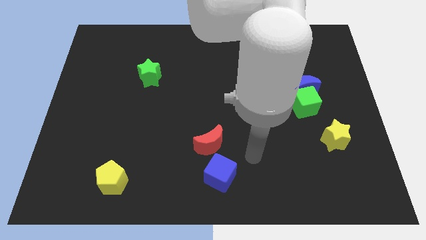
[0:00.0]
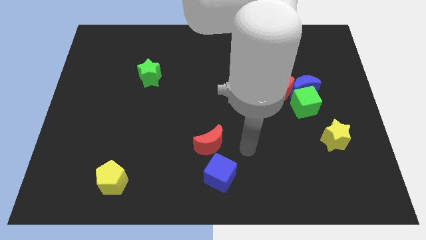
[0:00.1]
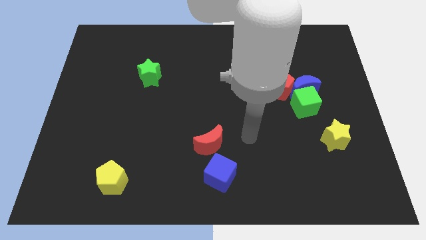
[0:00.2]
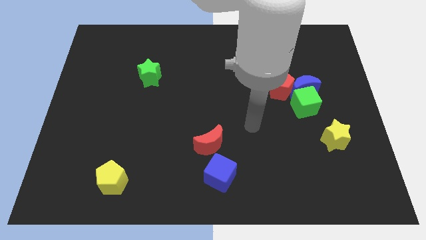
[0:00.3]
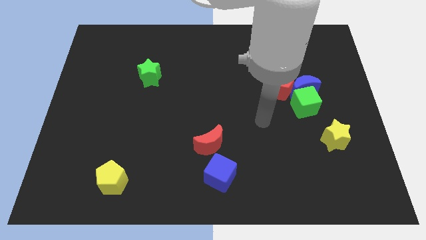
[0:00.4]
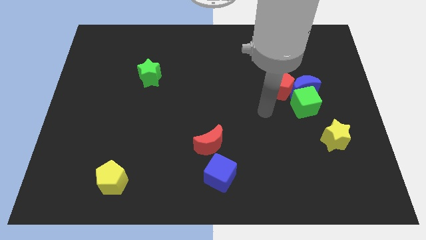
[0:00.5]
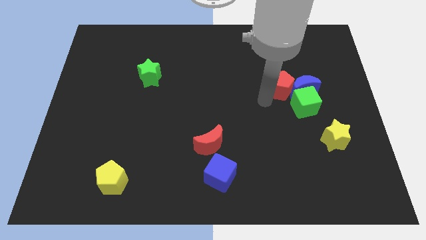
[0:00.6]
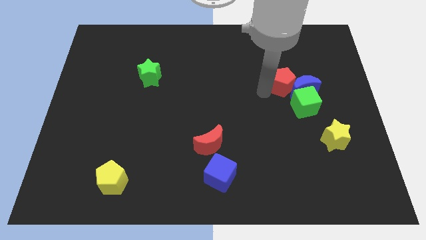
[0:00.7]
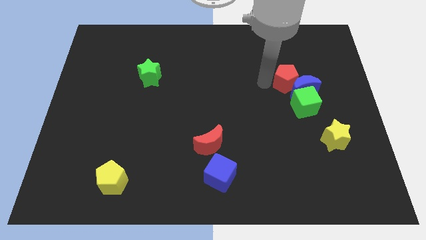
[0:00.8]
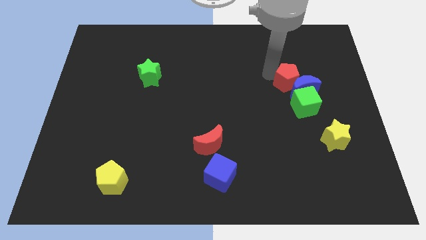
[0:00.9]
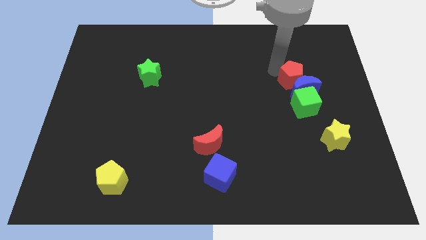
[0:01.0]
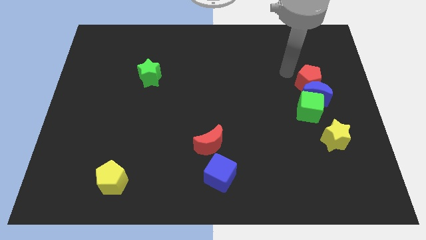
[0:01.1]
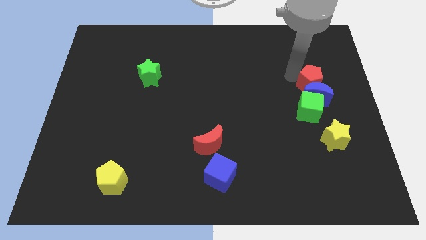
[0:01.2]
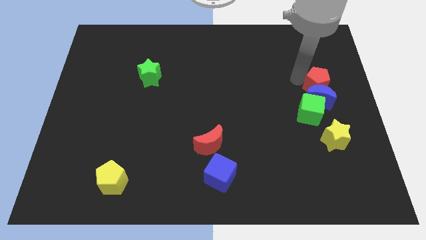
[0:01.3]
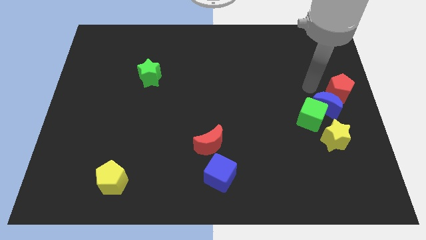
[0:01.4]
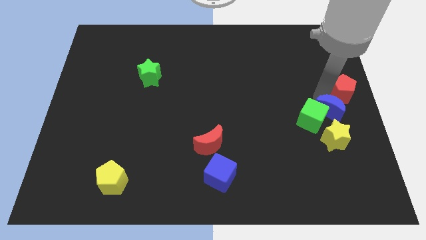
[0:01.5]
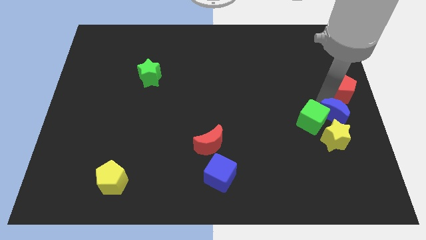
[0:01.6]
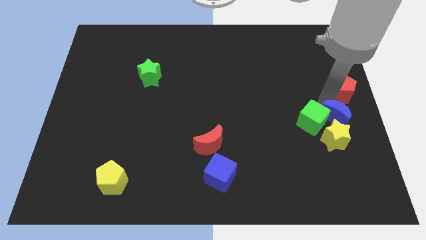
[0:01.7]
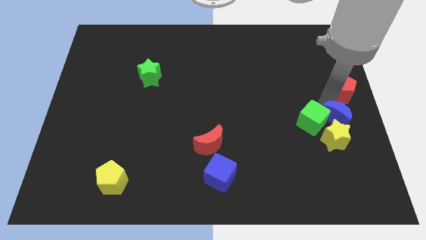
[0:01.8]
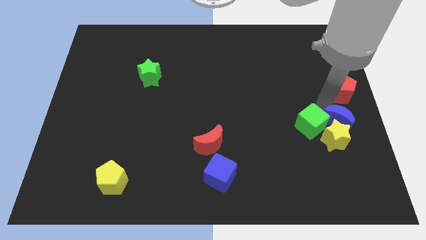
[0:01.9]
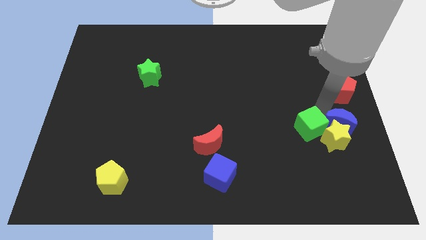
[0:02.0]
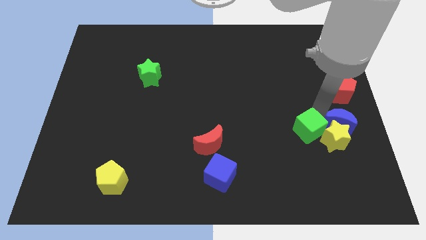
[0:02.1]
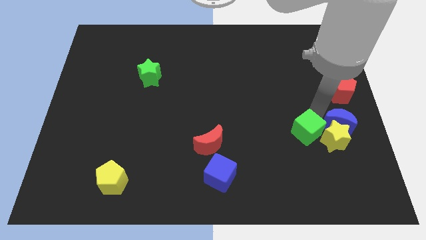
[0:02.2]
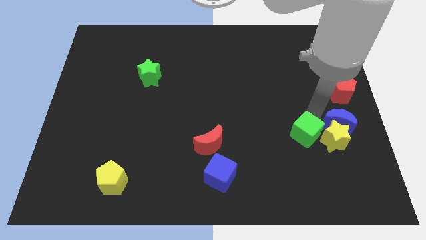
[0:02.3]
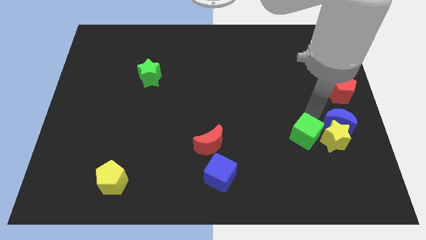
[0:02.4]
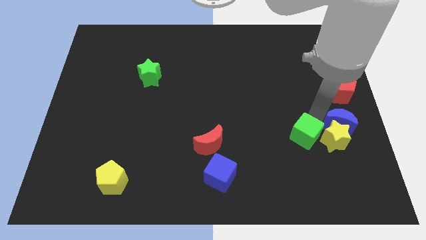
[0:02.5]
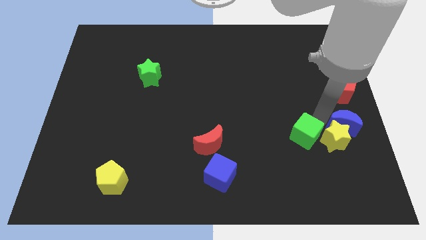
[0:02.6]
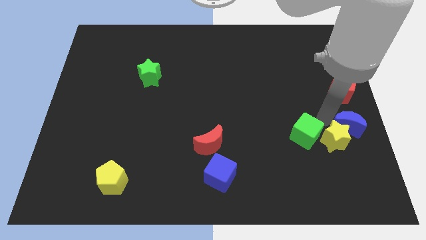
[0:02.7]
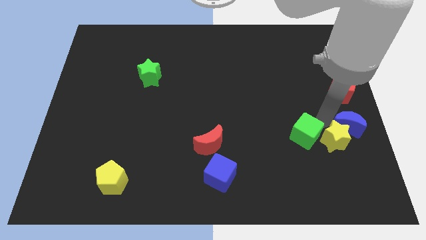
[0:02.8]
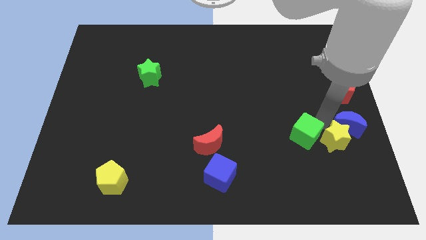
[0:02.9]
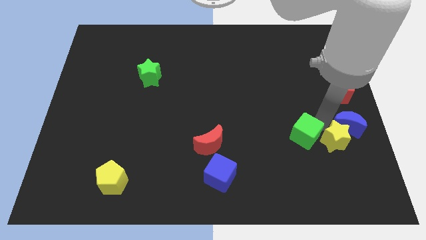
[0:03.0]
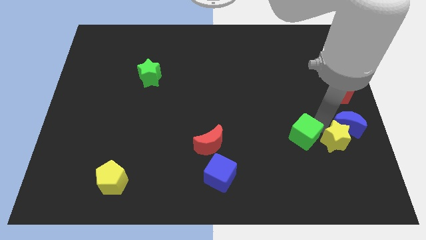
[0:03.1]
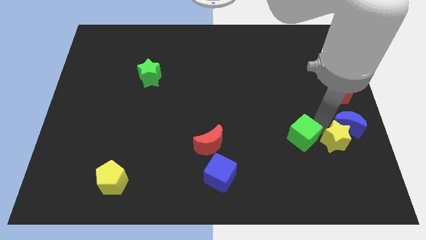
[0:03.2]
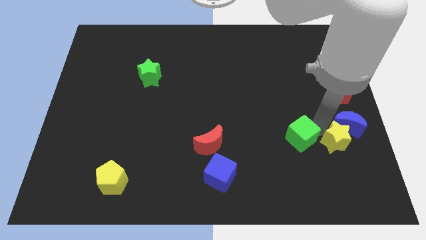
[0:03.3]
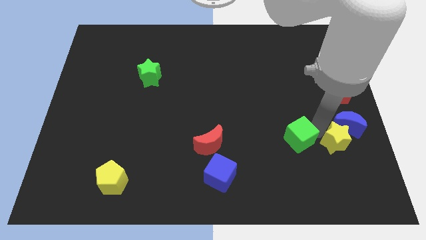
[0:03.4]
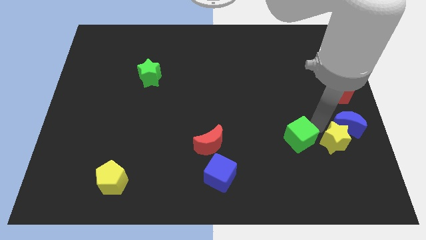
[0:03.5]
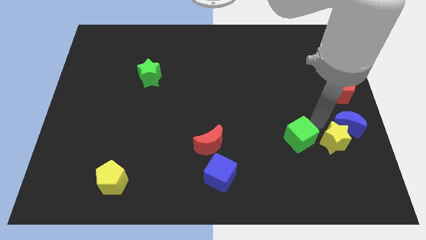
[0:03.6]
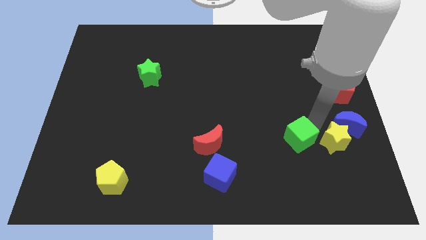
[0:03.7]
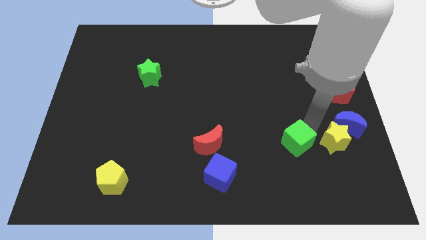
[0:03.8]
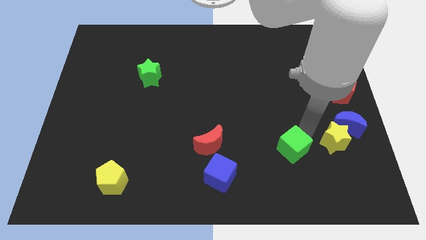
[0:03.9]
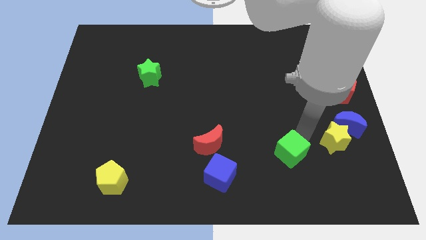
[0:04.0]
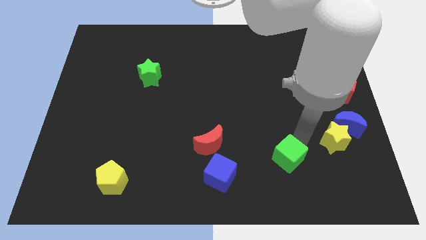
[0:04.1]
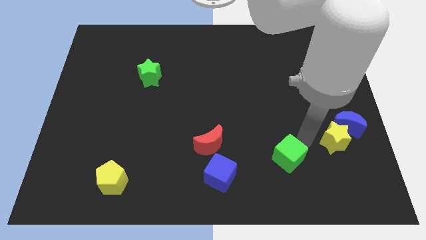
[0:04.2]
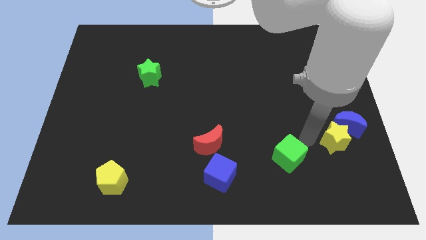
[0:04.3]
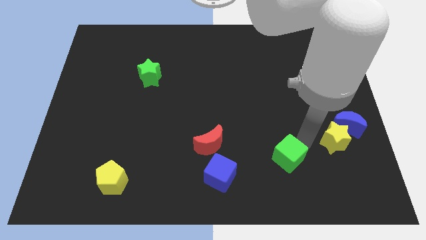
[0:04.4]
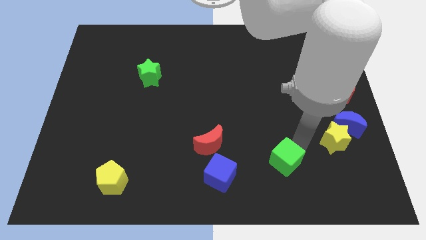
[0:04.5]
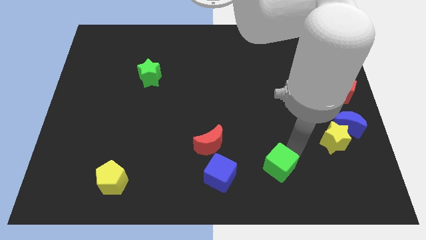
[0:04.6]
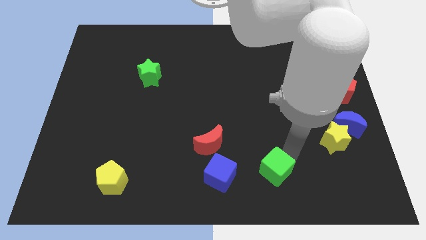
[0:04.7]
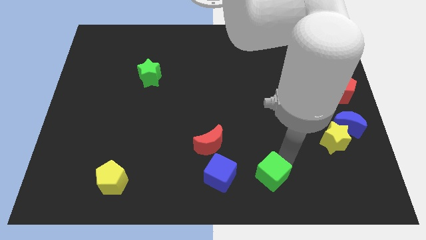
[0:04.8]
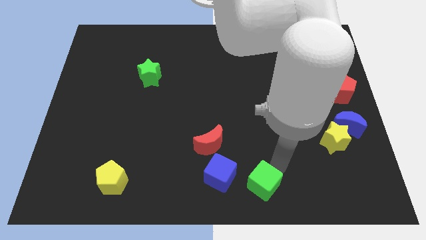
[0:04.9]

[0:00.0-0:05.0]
move the green cube to the bottom side

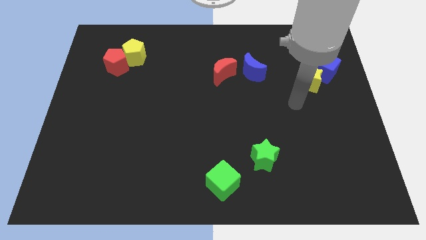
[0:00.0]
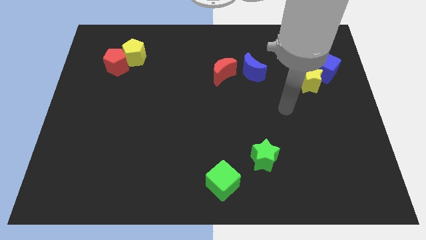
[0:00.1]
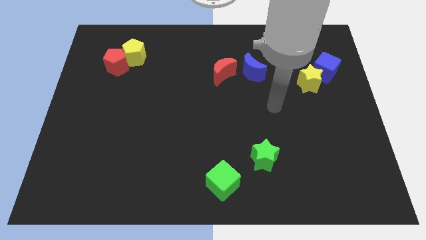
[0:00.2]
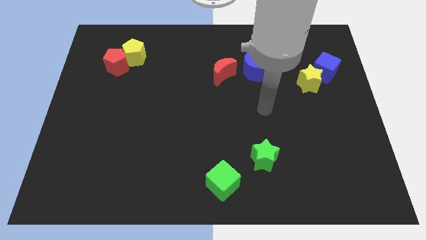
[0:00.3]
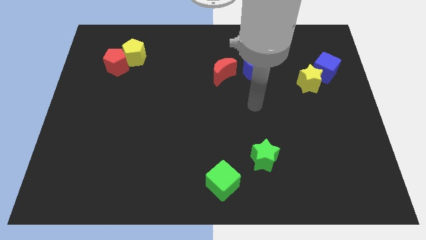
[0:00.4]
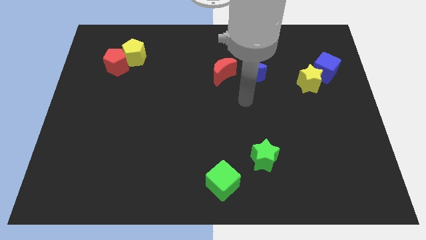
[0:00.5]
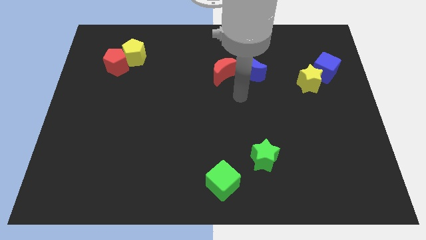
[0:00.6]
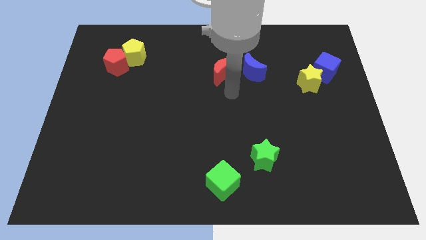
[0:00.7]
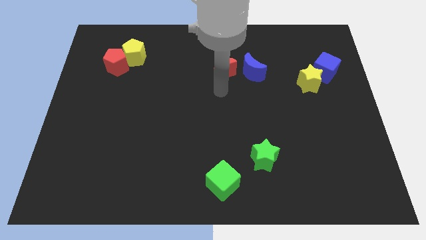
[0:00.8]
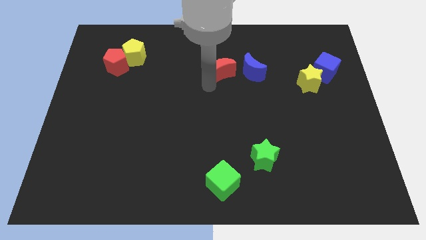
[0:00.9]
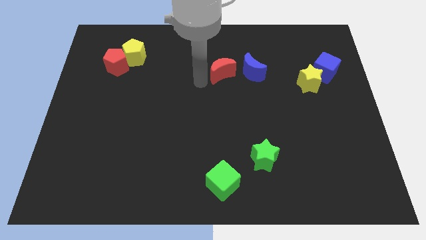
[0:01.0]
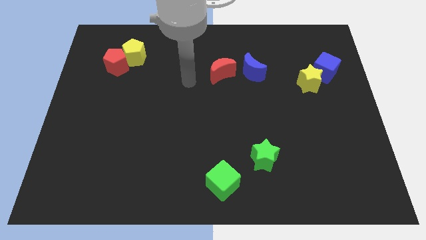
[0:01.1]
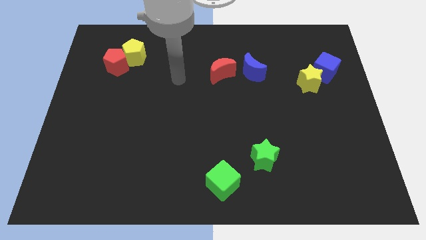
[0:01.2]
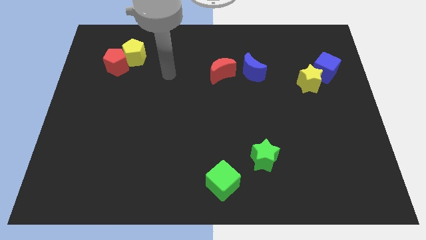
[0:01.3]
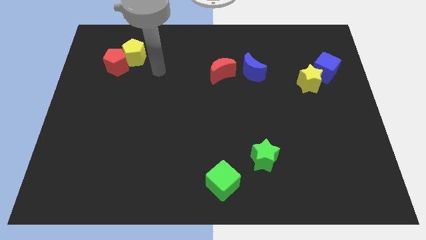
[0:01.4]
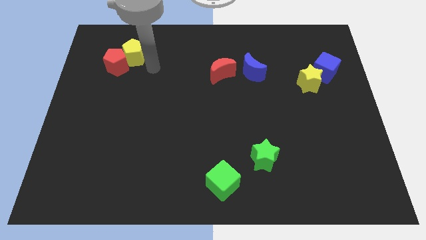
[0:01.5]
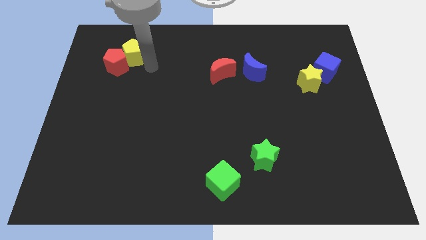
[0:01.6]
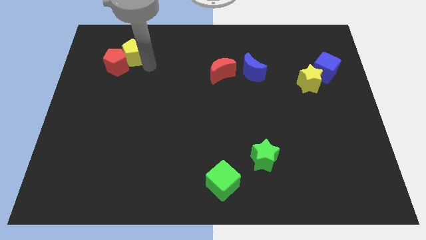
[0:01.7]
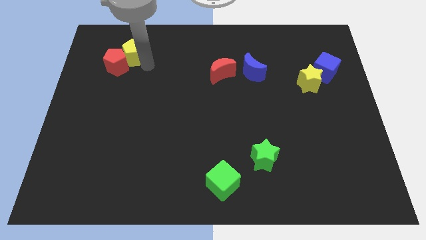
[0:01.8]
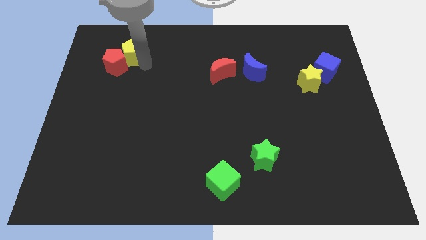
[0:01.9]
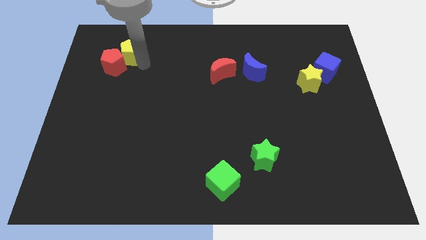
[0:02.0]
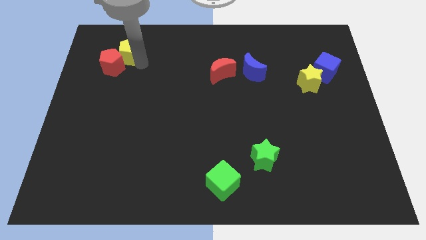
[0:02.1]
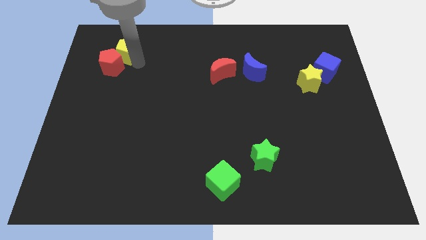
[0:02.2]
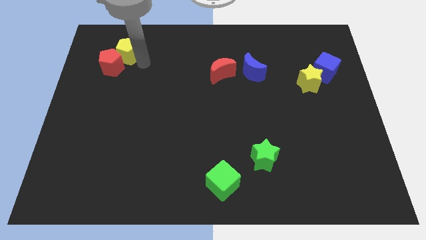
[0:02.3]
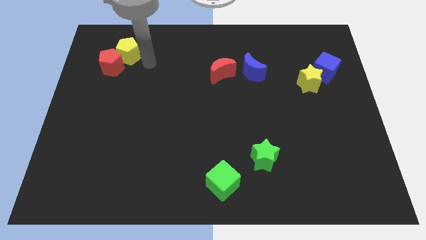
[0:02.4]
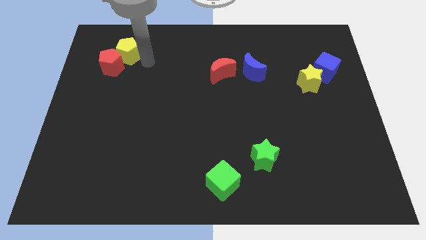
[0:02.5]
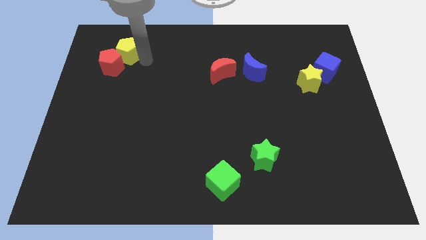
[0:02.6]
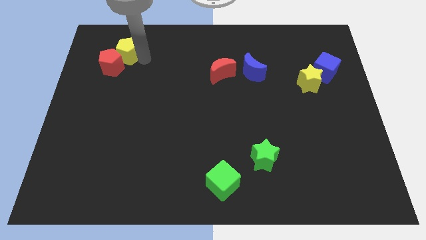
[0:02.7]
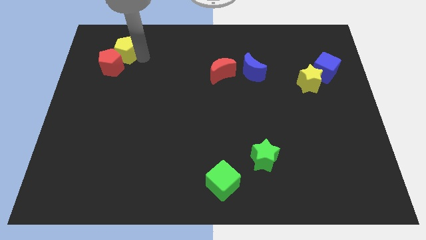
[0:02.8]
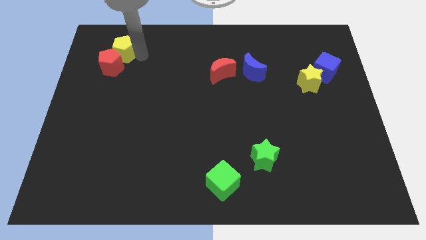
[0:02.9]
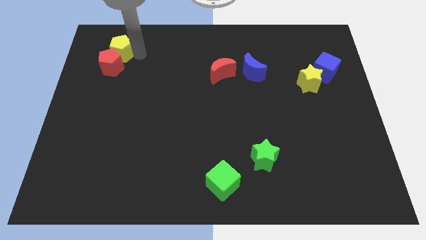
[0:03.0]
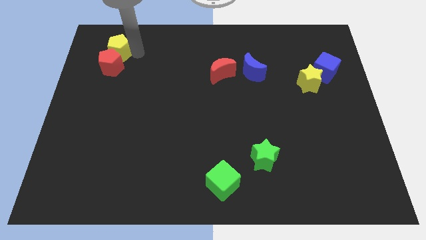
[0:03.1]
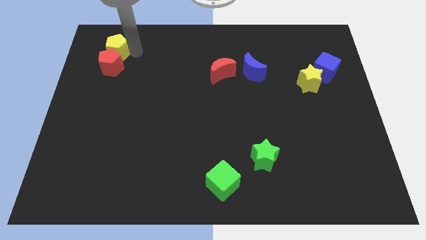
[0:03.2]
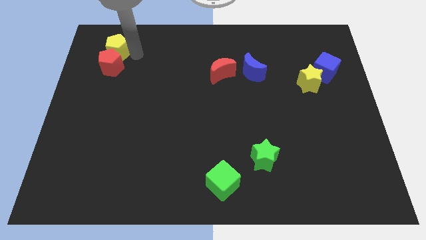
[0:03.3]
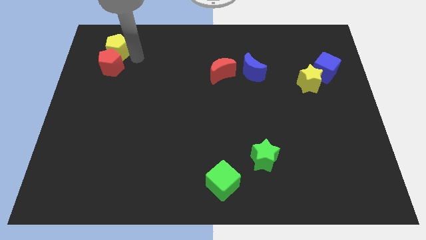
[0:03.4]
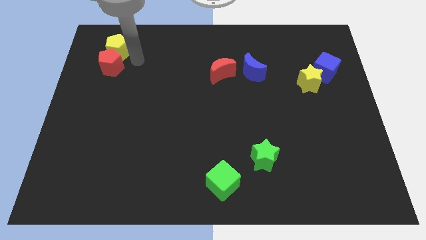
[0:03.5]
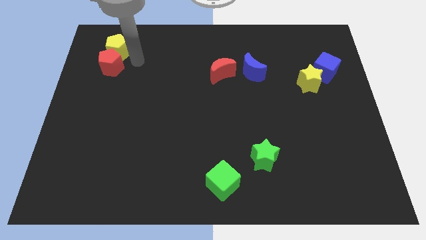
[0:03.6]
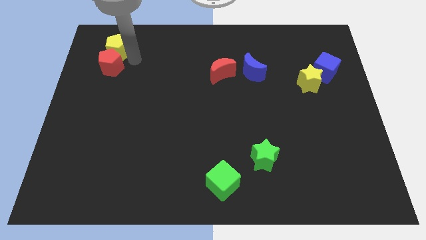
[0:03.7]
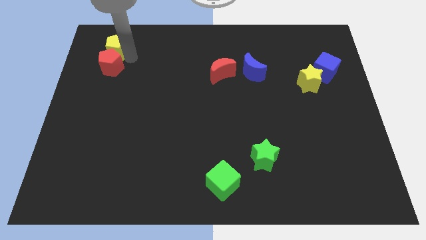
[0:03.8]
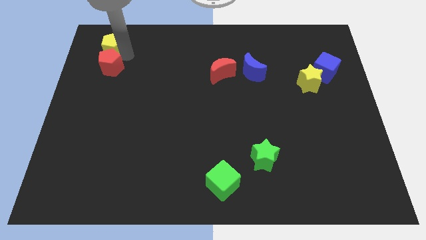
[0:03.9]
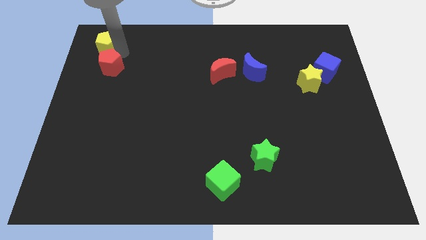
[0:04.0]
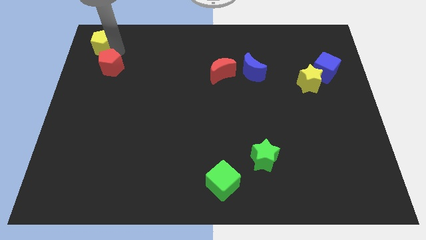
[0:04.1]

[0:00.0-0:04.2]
put the yellow pentagon to the top left
